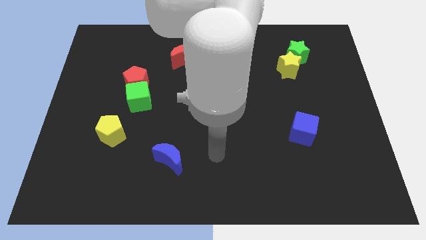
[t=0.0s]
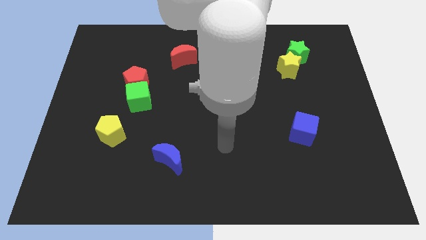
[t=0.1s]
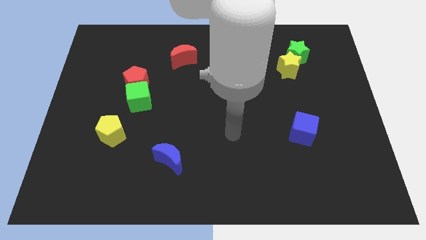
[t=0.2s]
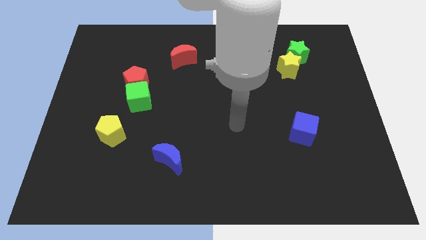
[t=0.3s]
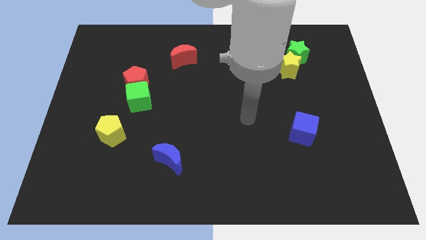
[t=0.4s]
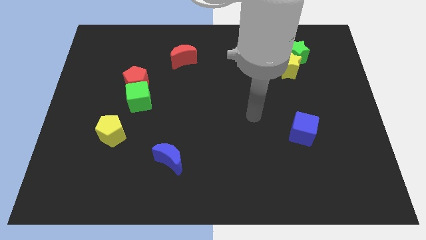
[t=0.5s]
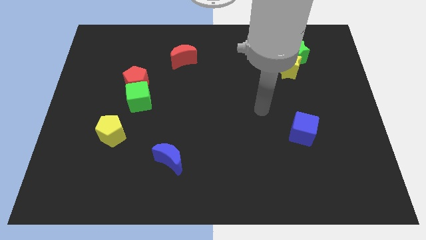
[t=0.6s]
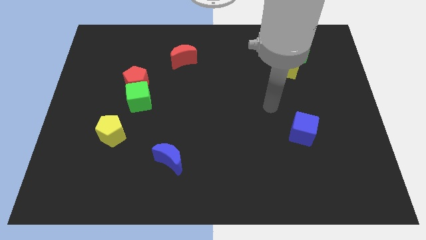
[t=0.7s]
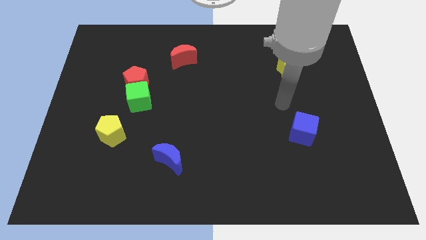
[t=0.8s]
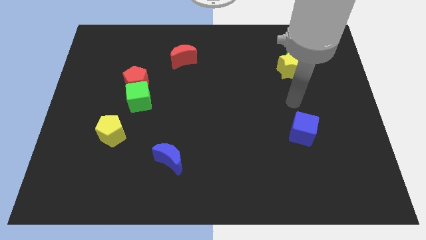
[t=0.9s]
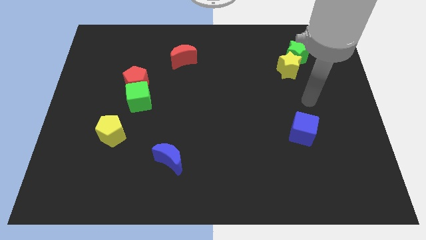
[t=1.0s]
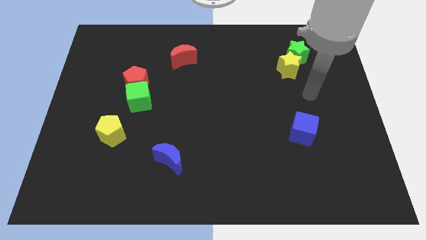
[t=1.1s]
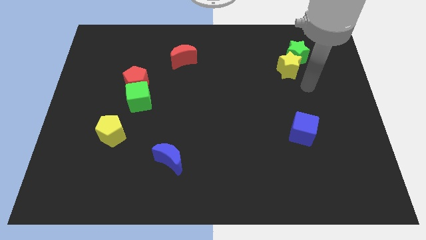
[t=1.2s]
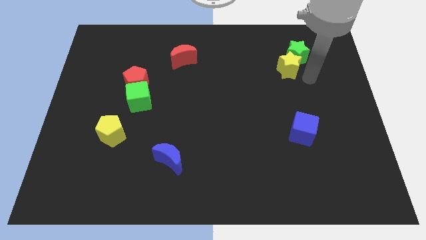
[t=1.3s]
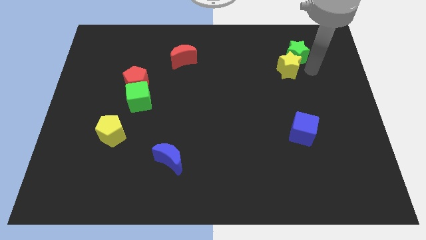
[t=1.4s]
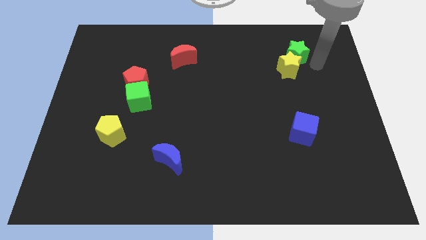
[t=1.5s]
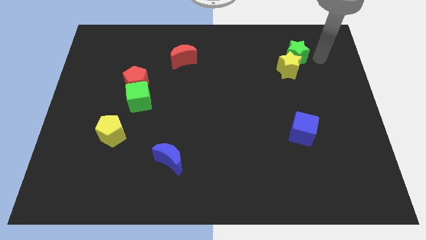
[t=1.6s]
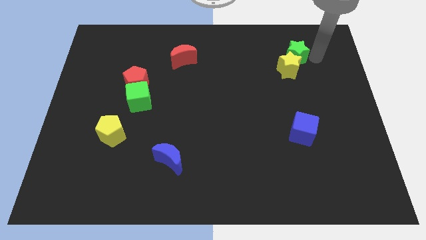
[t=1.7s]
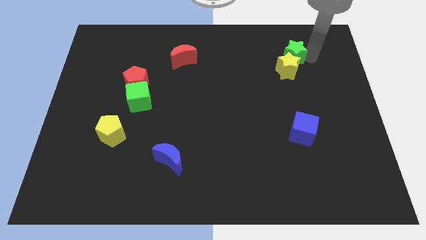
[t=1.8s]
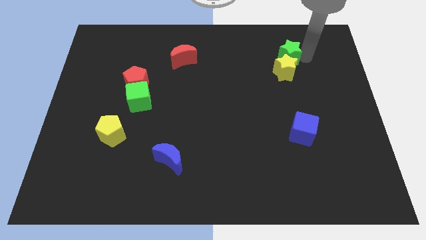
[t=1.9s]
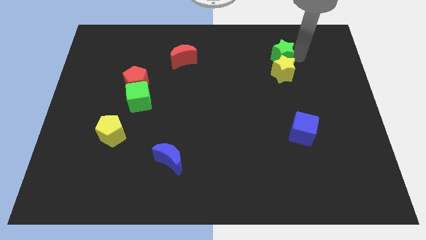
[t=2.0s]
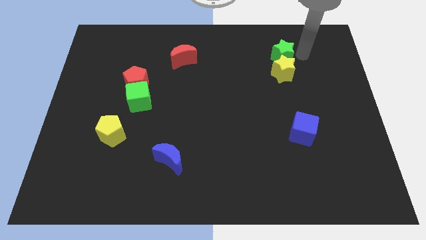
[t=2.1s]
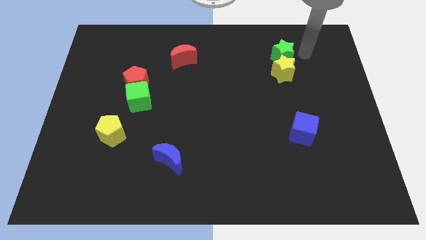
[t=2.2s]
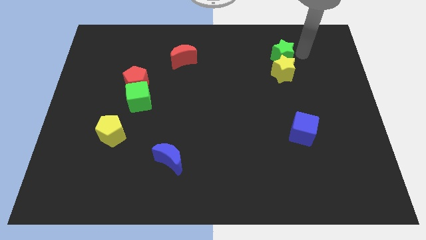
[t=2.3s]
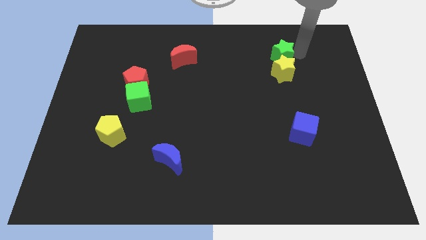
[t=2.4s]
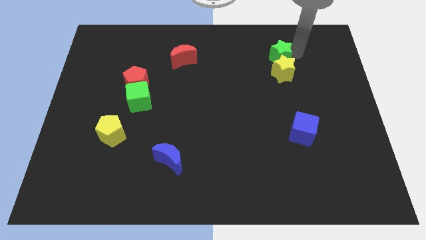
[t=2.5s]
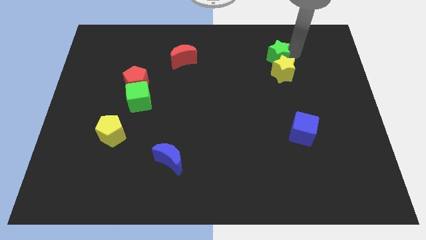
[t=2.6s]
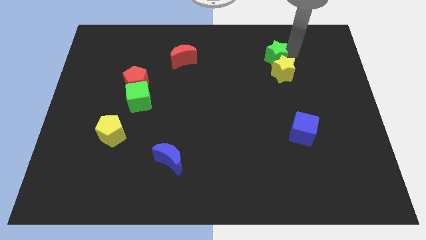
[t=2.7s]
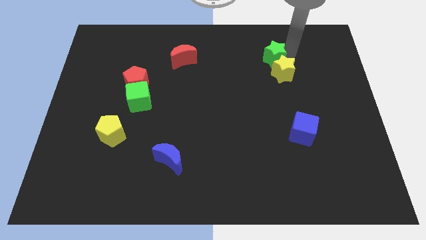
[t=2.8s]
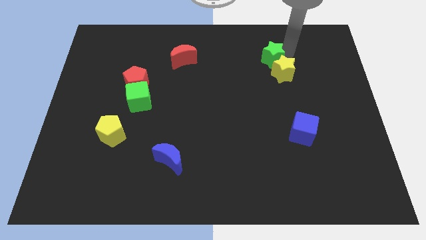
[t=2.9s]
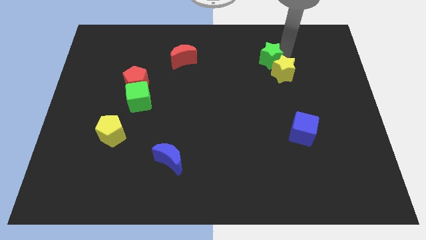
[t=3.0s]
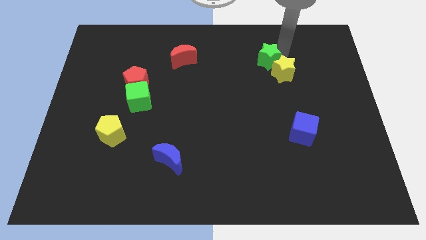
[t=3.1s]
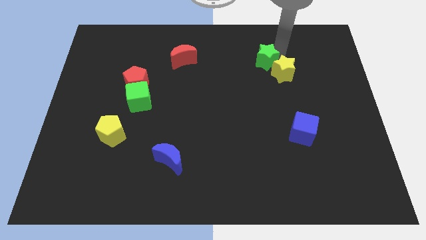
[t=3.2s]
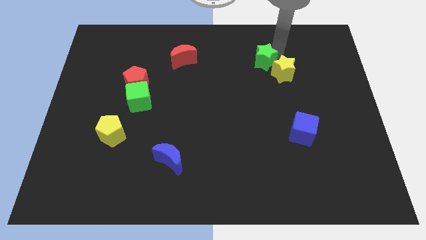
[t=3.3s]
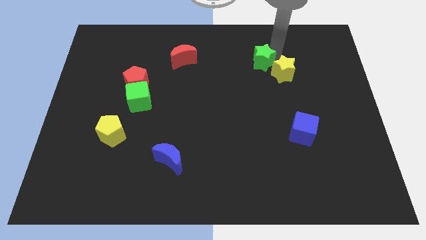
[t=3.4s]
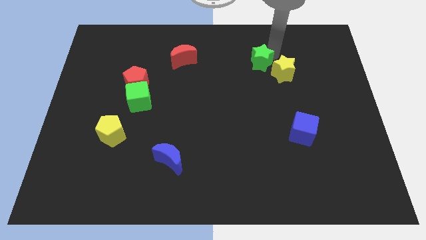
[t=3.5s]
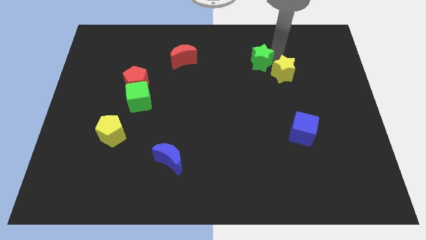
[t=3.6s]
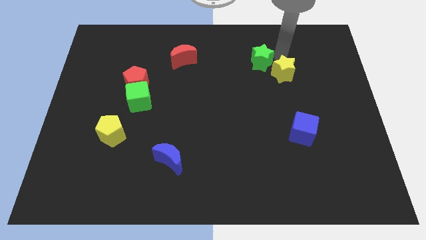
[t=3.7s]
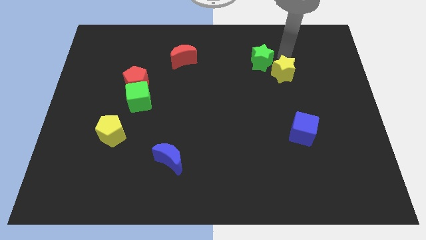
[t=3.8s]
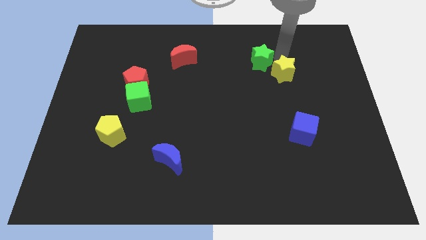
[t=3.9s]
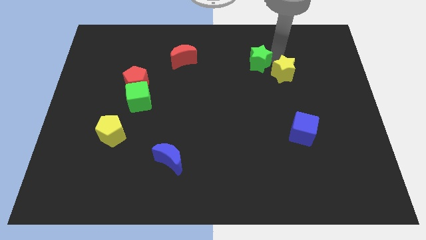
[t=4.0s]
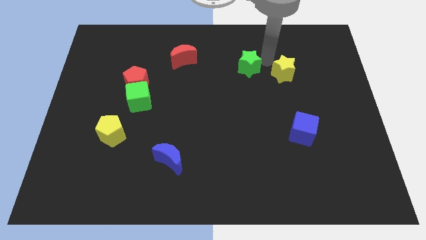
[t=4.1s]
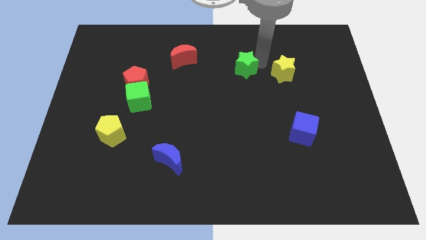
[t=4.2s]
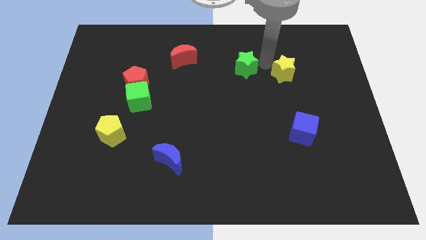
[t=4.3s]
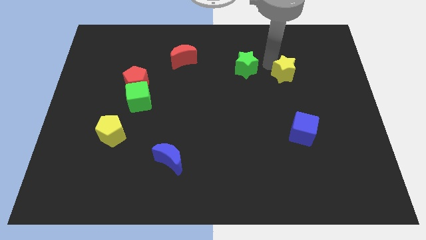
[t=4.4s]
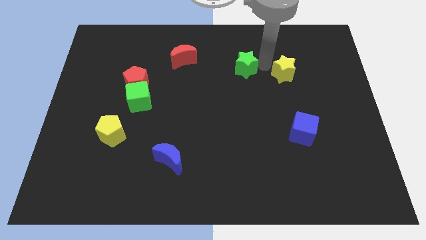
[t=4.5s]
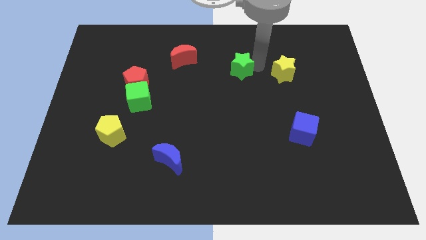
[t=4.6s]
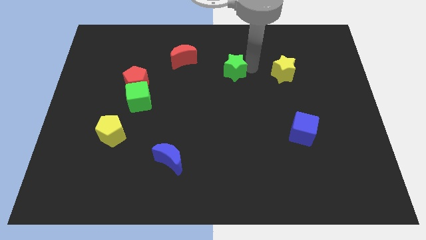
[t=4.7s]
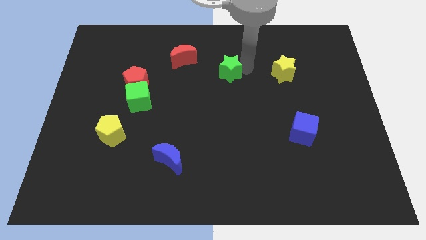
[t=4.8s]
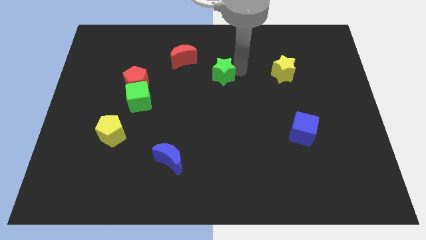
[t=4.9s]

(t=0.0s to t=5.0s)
move the green star diagonally down and to the right of the red moon

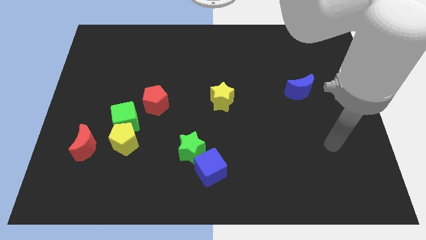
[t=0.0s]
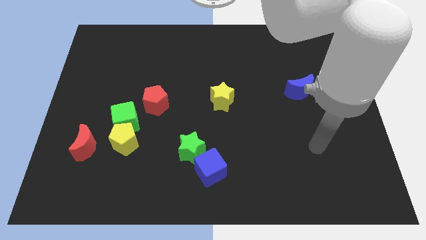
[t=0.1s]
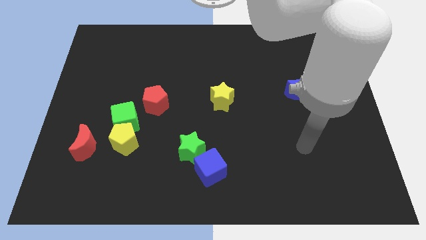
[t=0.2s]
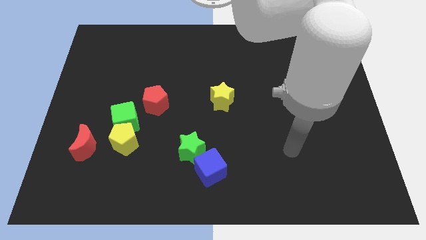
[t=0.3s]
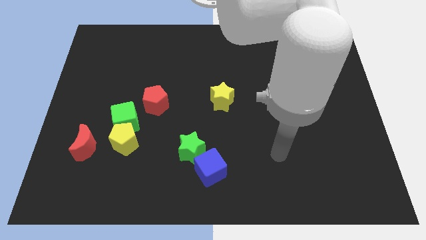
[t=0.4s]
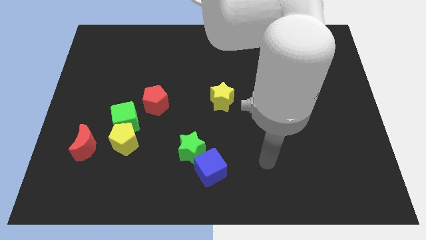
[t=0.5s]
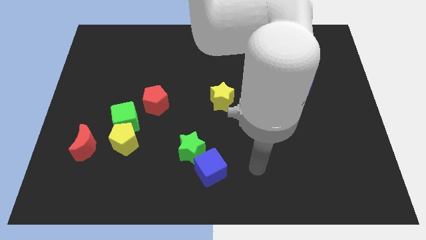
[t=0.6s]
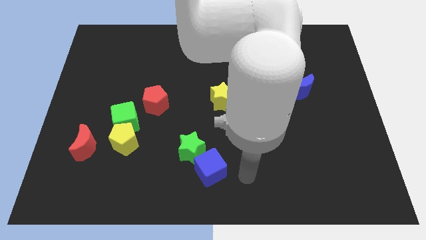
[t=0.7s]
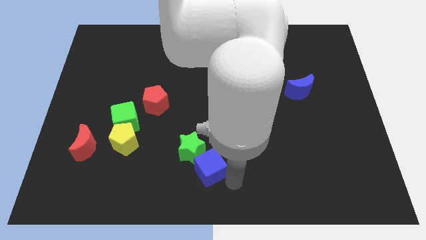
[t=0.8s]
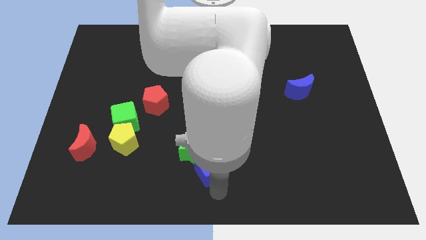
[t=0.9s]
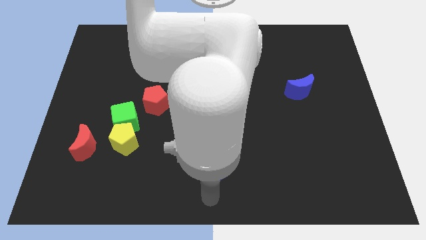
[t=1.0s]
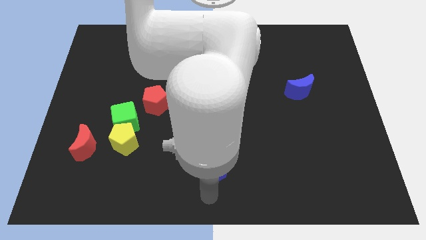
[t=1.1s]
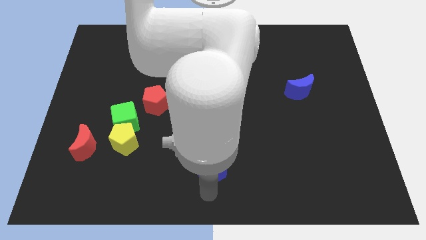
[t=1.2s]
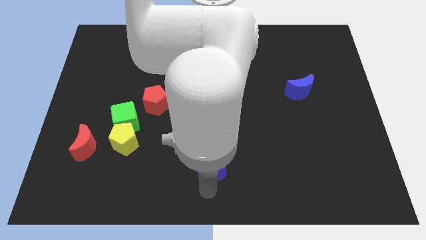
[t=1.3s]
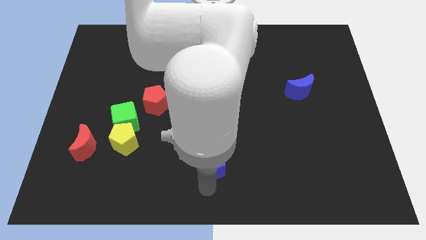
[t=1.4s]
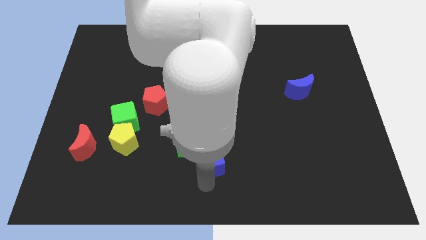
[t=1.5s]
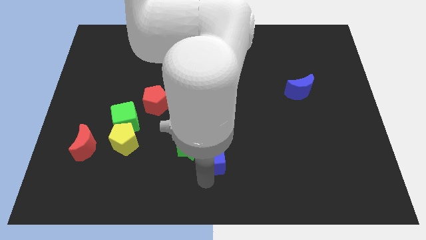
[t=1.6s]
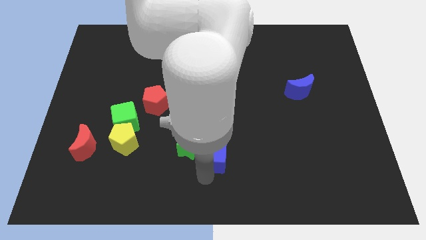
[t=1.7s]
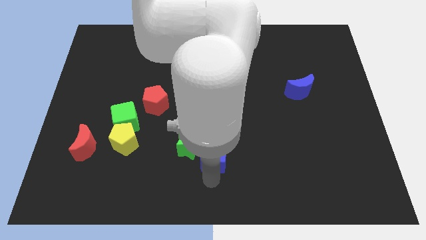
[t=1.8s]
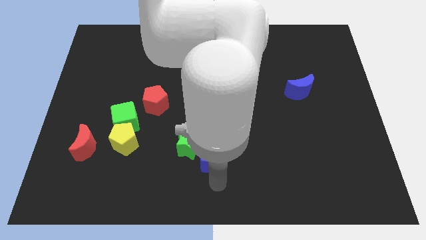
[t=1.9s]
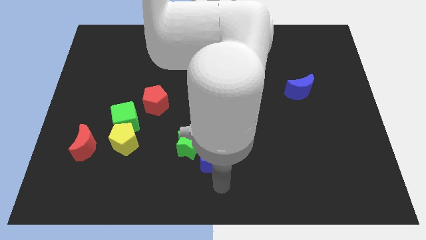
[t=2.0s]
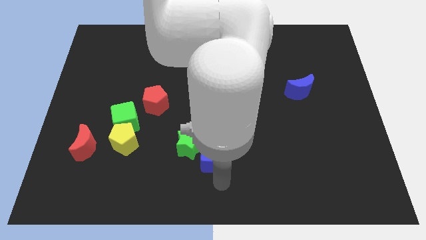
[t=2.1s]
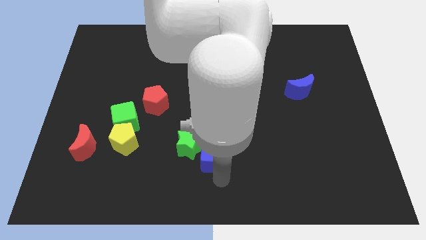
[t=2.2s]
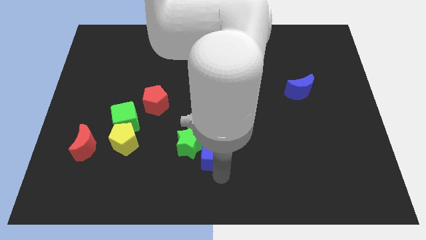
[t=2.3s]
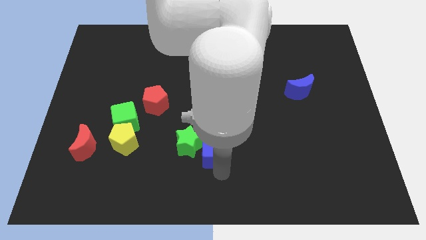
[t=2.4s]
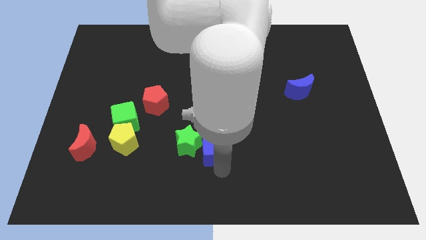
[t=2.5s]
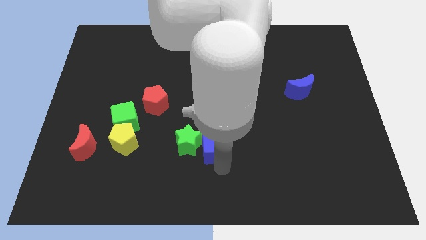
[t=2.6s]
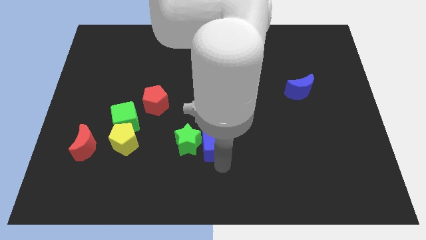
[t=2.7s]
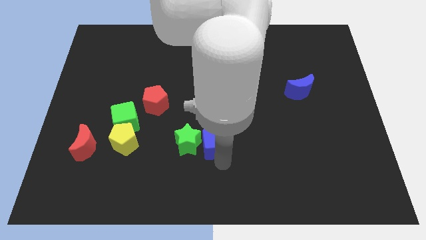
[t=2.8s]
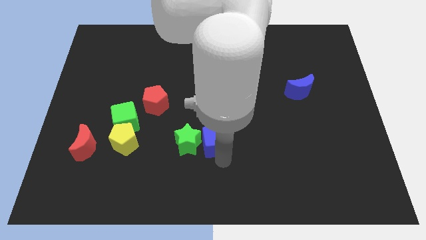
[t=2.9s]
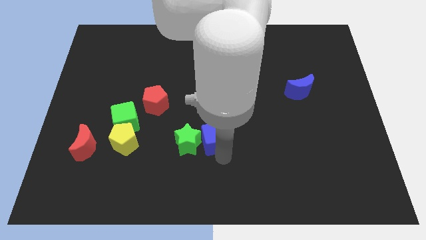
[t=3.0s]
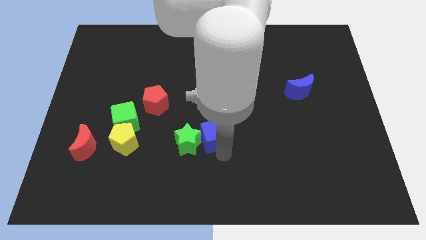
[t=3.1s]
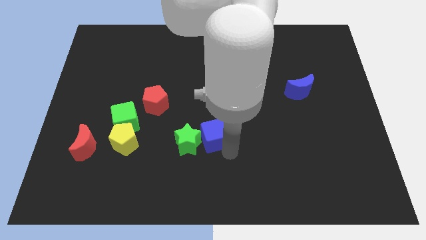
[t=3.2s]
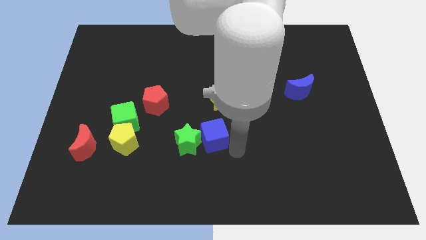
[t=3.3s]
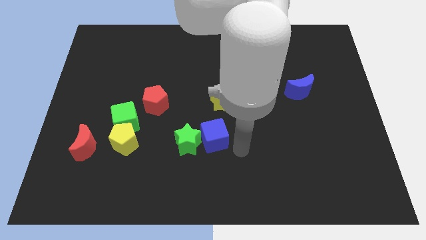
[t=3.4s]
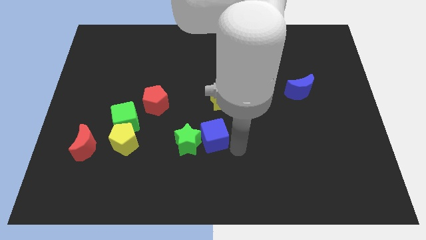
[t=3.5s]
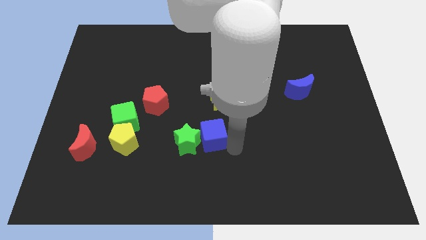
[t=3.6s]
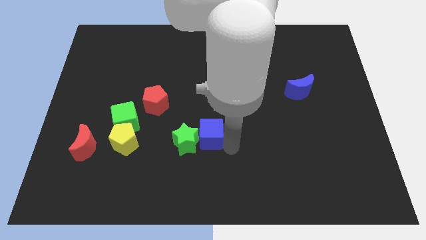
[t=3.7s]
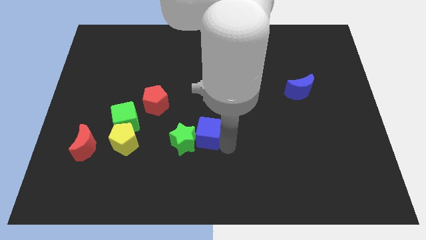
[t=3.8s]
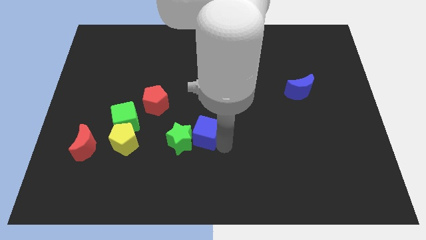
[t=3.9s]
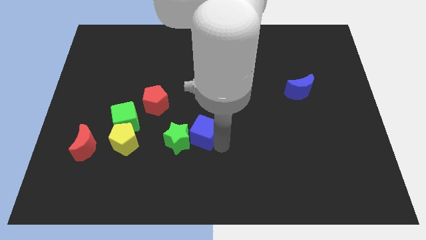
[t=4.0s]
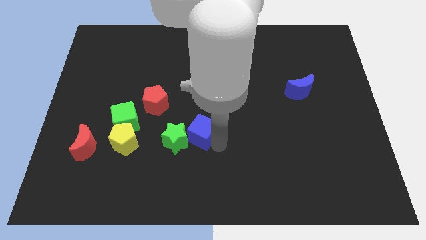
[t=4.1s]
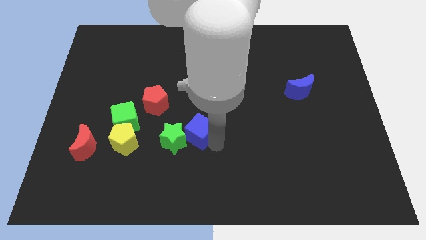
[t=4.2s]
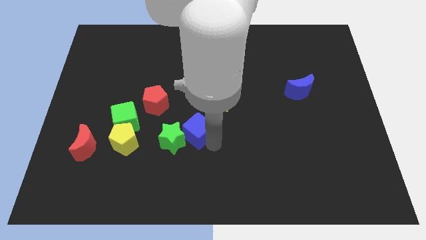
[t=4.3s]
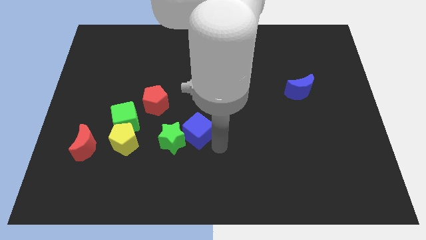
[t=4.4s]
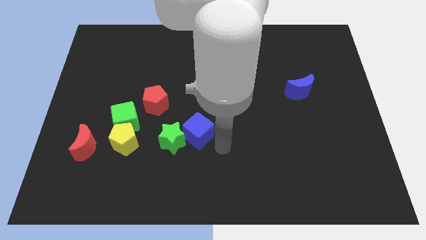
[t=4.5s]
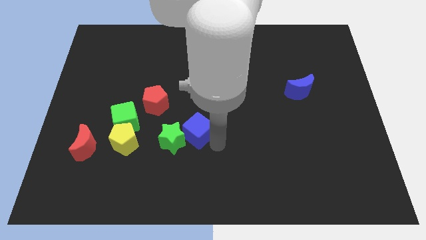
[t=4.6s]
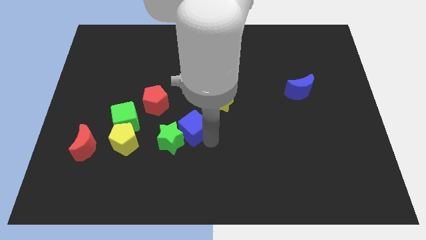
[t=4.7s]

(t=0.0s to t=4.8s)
push the blue cube to the bottom right of the red pentagon